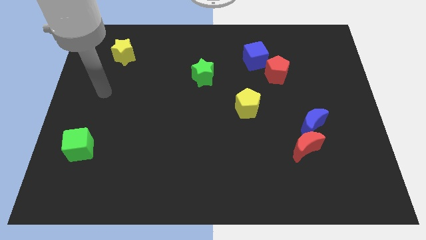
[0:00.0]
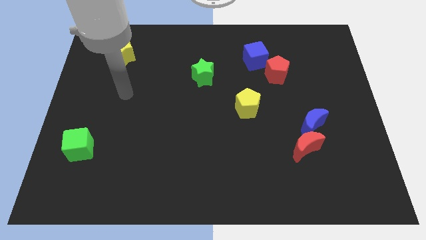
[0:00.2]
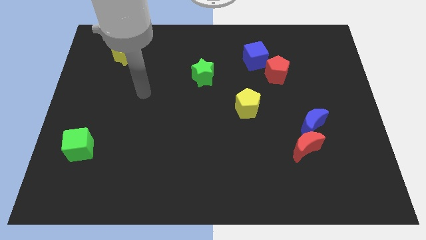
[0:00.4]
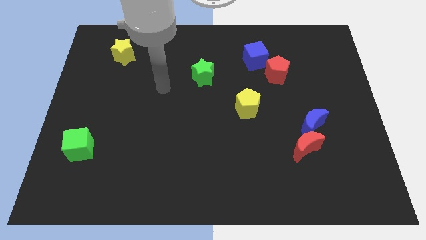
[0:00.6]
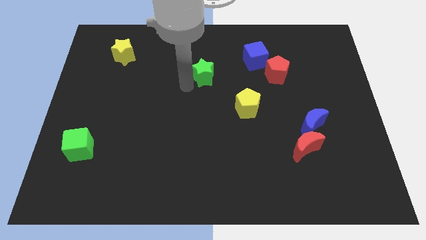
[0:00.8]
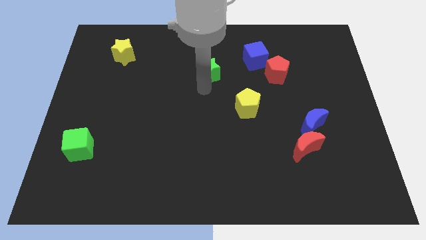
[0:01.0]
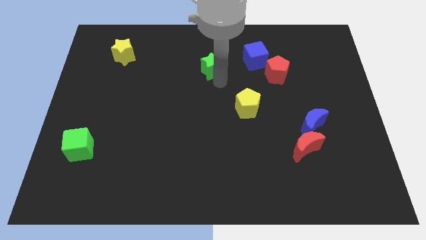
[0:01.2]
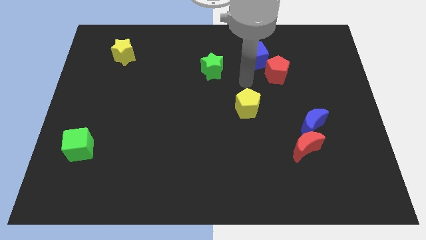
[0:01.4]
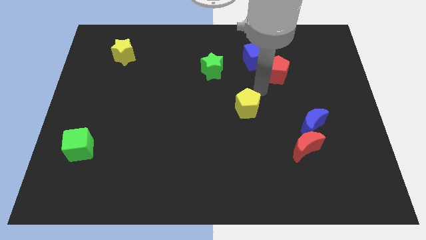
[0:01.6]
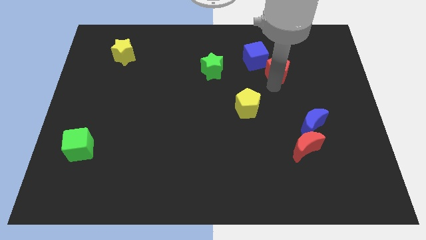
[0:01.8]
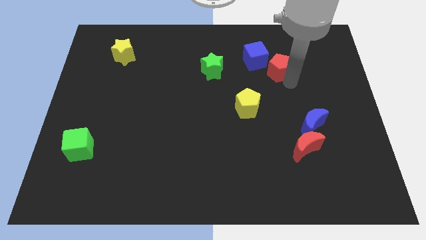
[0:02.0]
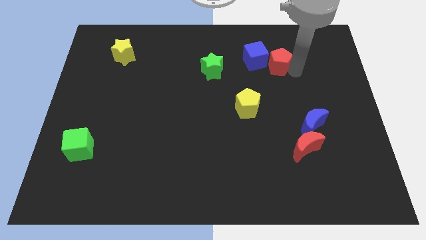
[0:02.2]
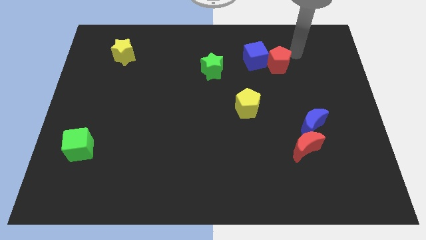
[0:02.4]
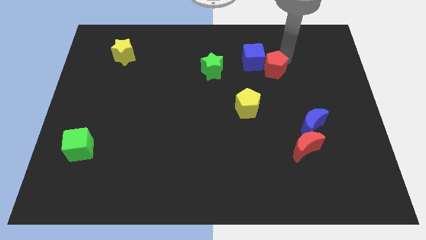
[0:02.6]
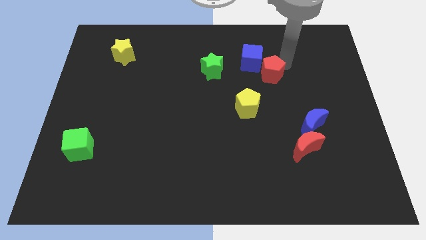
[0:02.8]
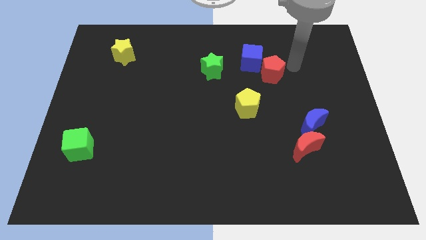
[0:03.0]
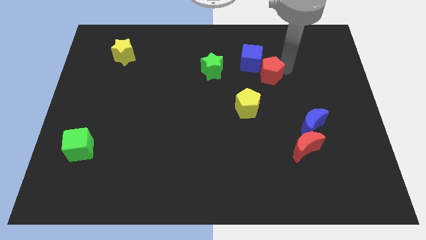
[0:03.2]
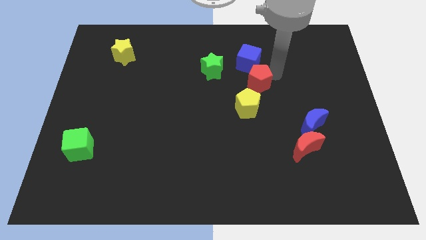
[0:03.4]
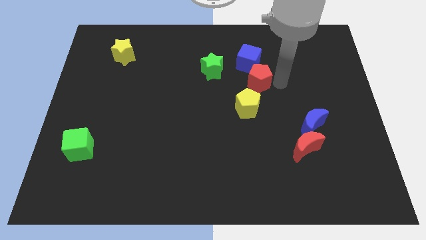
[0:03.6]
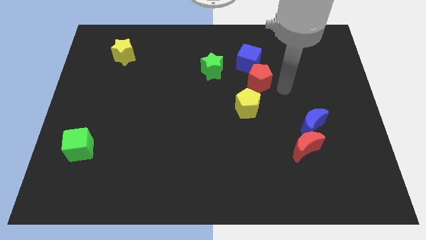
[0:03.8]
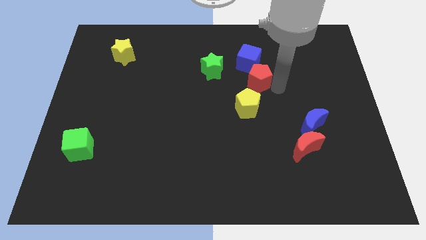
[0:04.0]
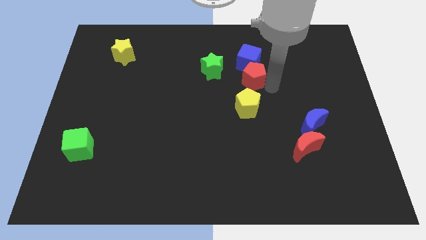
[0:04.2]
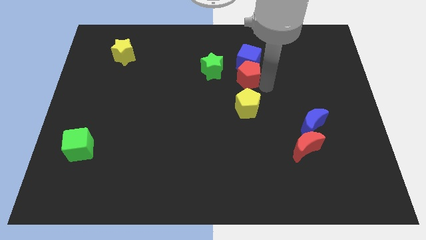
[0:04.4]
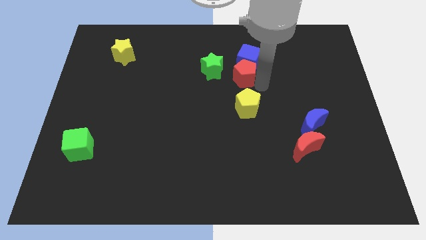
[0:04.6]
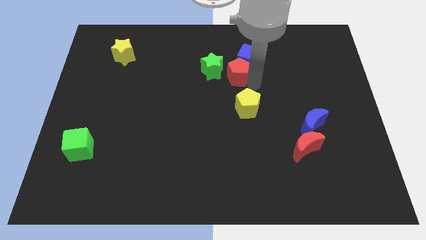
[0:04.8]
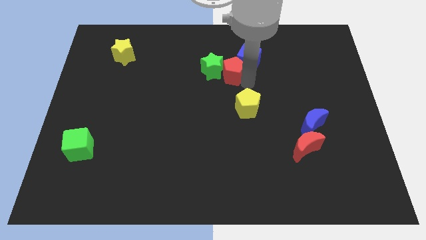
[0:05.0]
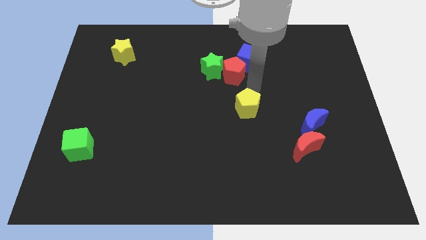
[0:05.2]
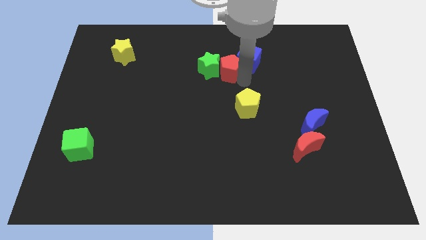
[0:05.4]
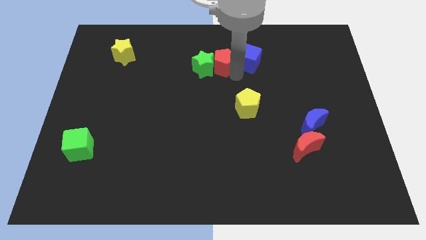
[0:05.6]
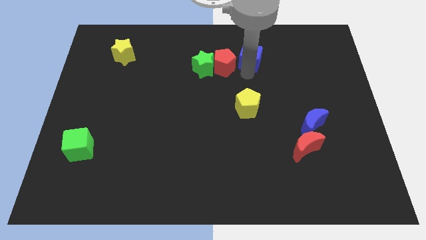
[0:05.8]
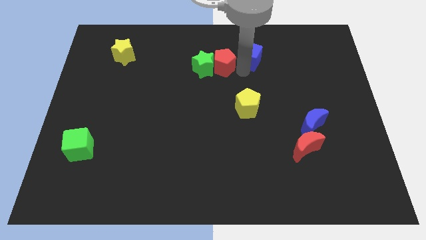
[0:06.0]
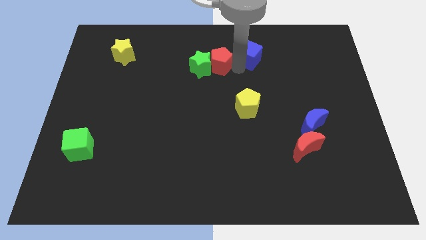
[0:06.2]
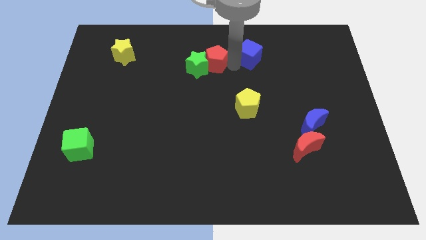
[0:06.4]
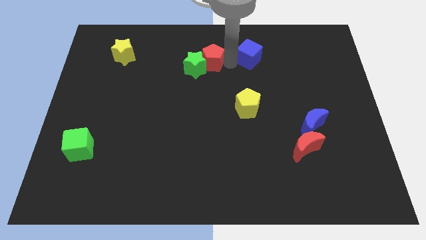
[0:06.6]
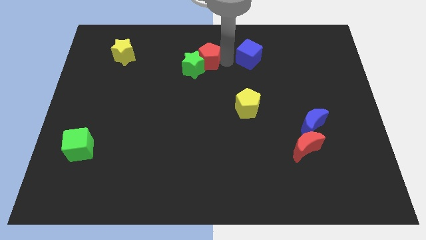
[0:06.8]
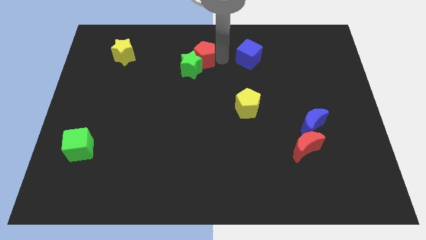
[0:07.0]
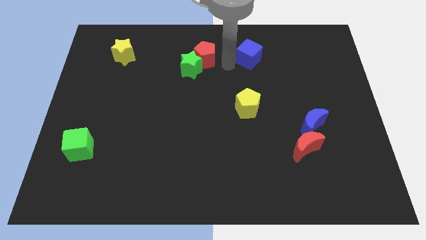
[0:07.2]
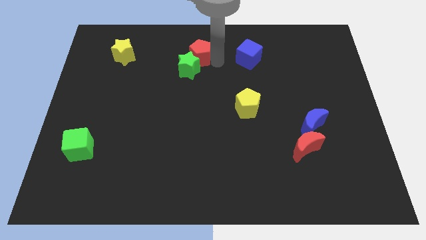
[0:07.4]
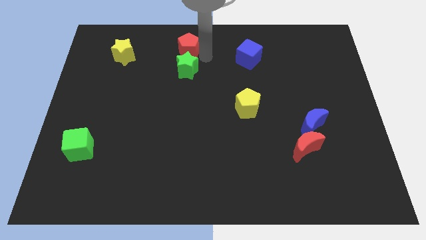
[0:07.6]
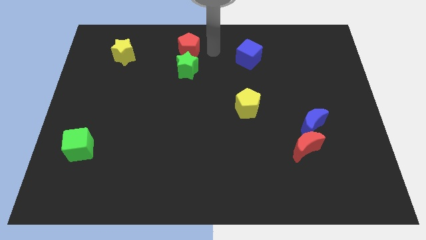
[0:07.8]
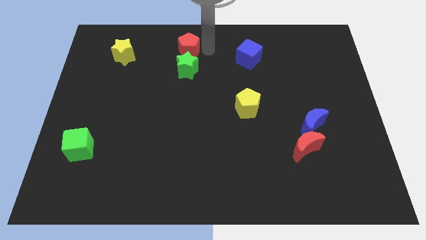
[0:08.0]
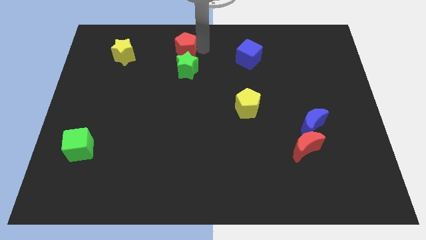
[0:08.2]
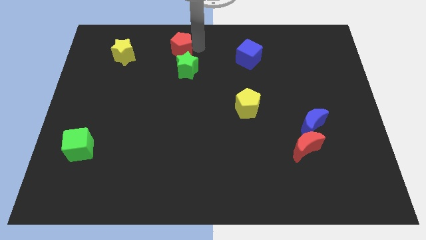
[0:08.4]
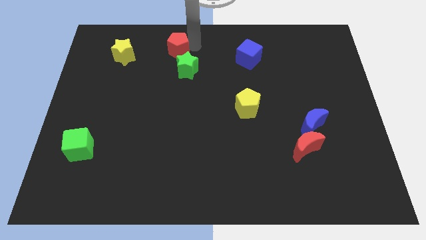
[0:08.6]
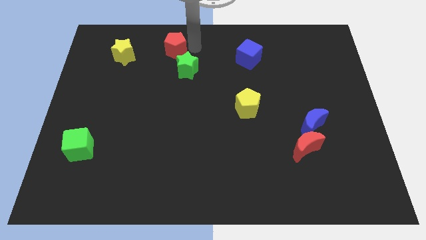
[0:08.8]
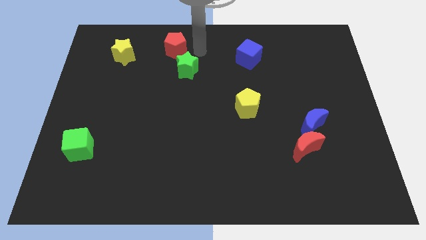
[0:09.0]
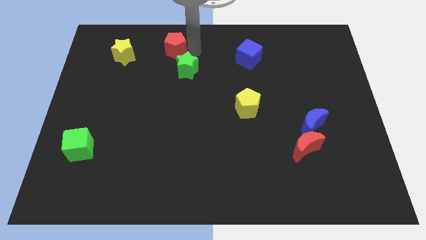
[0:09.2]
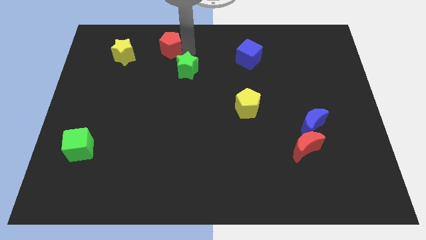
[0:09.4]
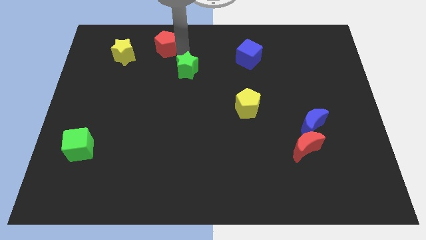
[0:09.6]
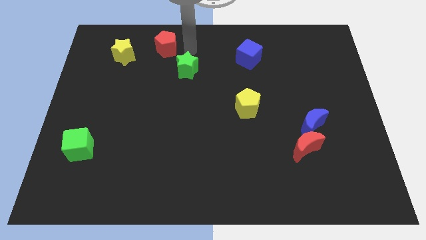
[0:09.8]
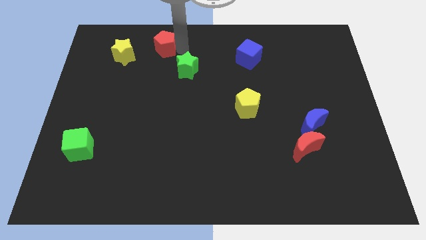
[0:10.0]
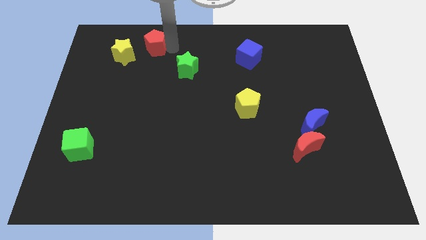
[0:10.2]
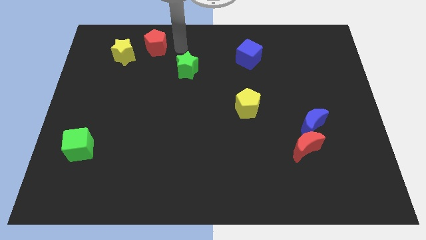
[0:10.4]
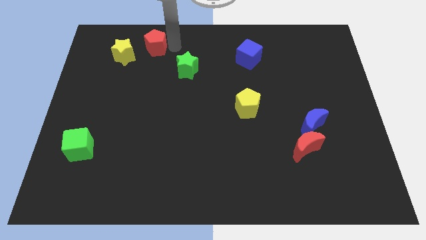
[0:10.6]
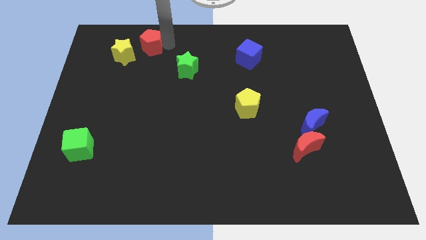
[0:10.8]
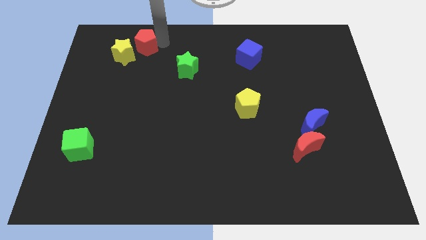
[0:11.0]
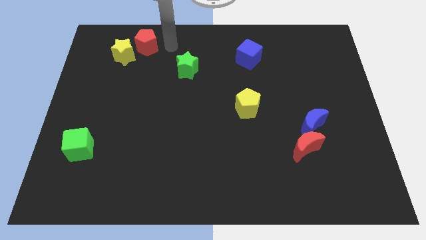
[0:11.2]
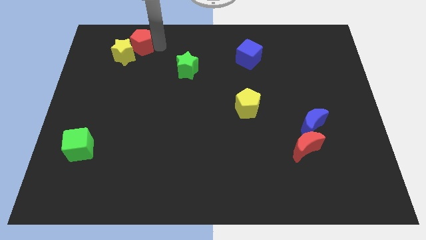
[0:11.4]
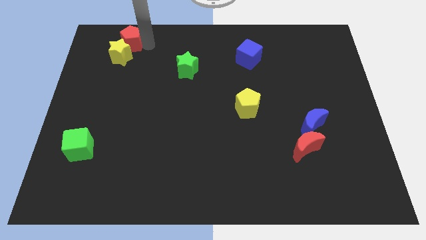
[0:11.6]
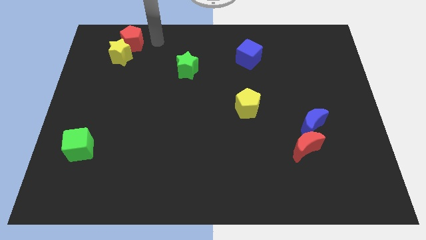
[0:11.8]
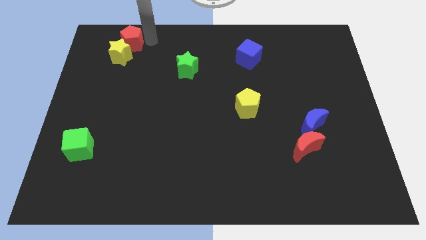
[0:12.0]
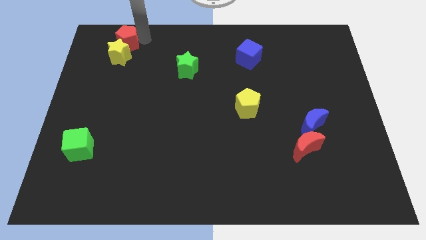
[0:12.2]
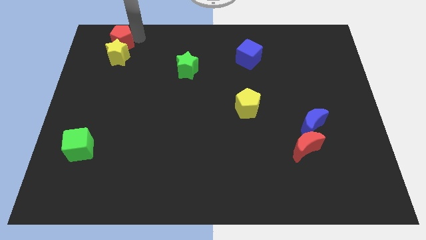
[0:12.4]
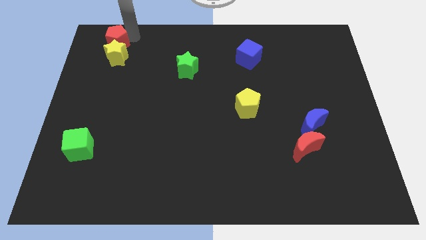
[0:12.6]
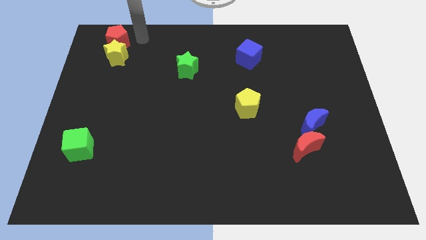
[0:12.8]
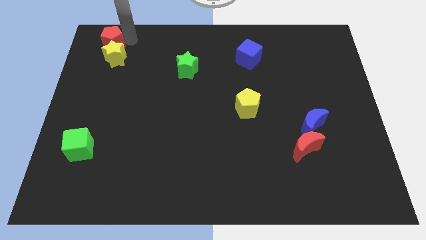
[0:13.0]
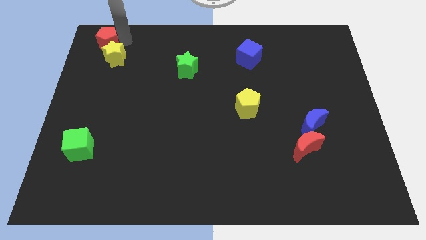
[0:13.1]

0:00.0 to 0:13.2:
move the red pentagon to the top left corner
